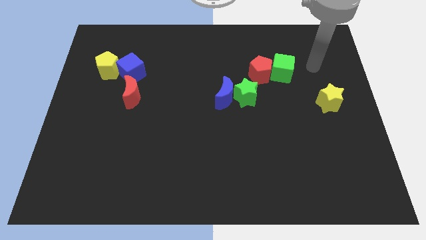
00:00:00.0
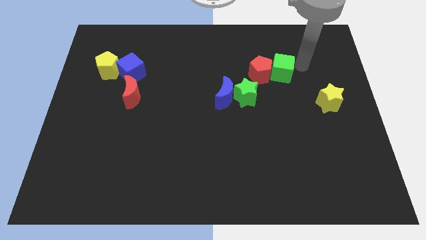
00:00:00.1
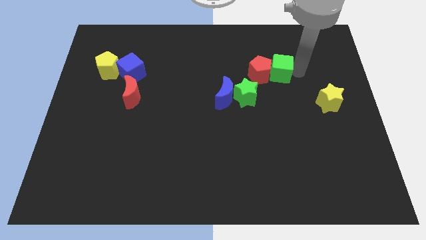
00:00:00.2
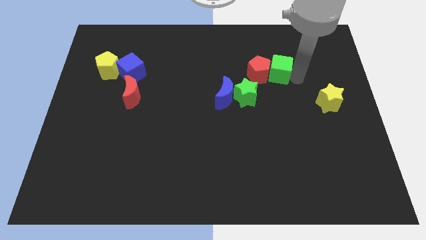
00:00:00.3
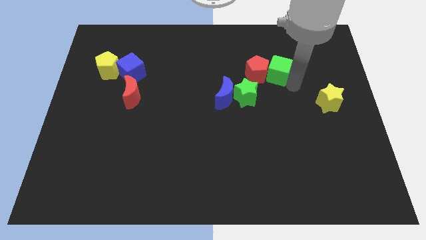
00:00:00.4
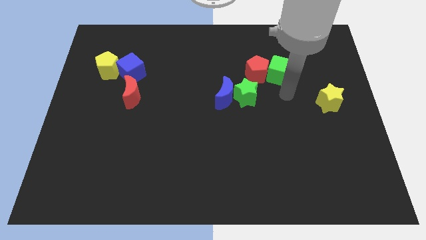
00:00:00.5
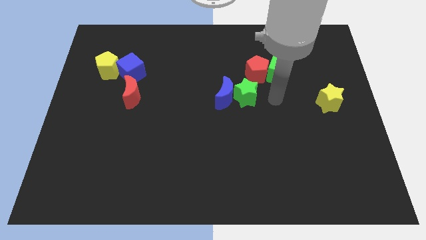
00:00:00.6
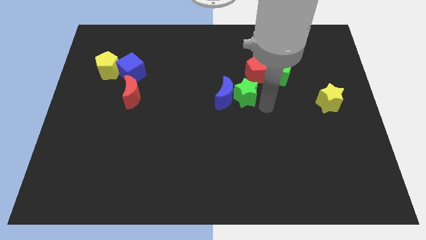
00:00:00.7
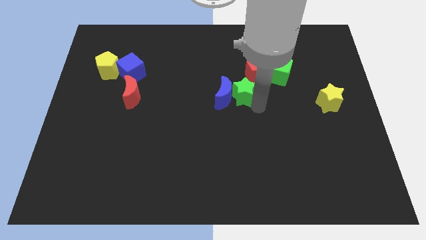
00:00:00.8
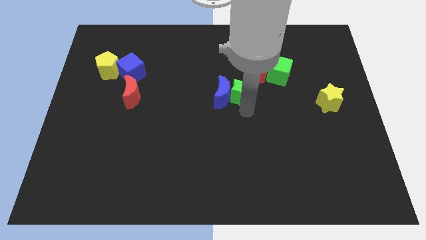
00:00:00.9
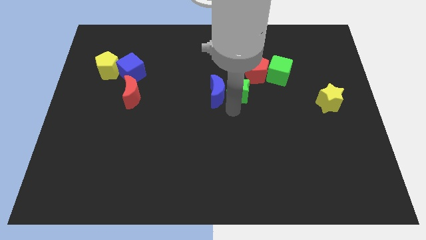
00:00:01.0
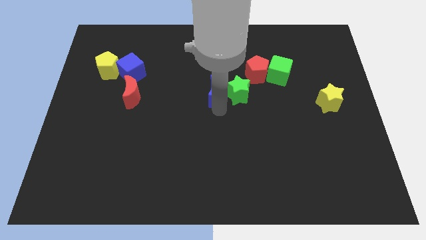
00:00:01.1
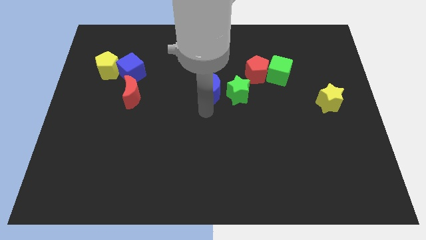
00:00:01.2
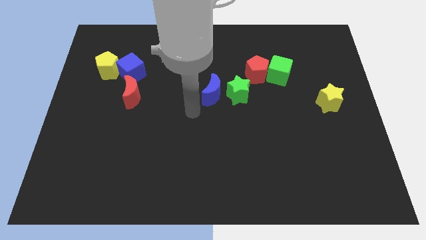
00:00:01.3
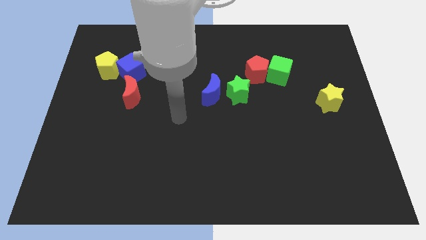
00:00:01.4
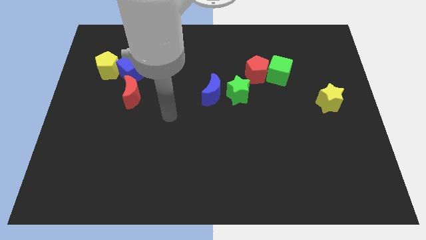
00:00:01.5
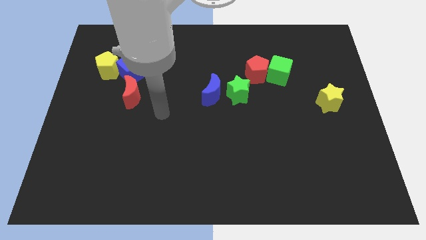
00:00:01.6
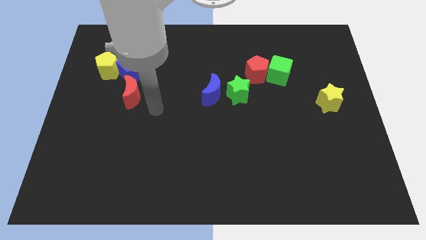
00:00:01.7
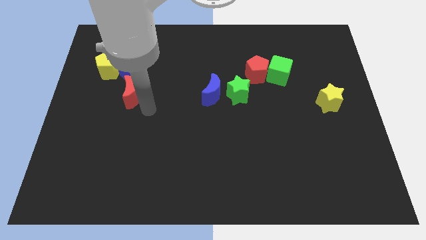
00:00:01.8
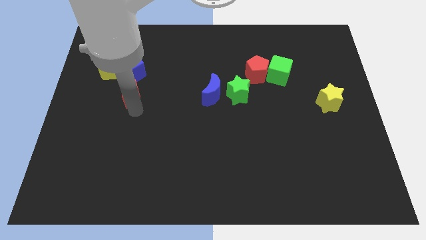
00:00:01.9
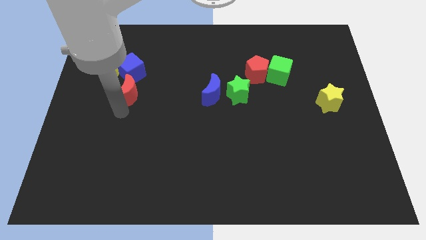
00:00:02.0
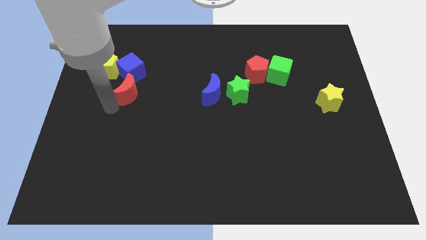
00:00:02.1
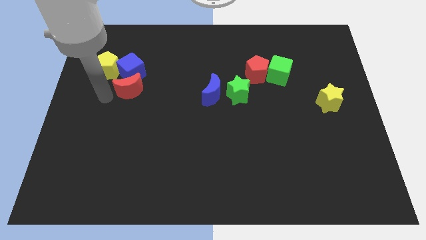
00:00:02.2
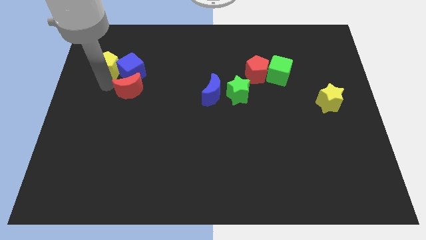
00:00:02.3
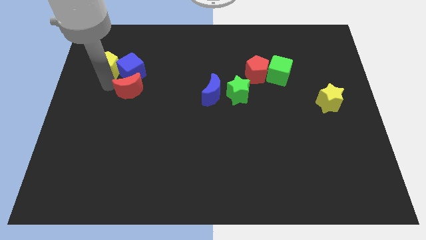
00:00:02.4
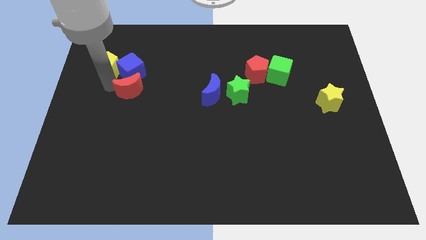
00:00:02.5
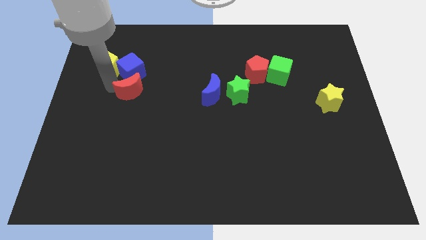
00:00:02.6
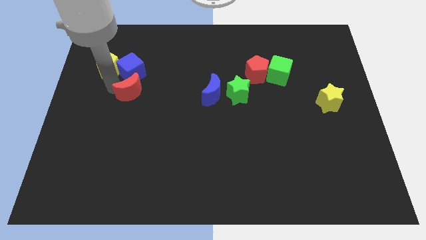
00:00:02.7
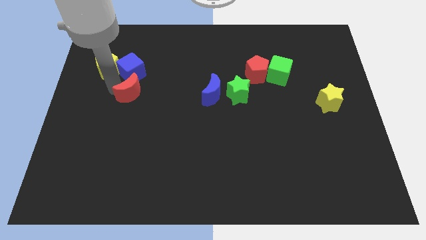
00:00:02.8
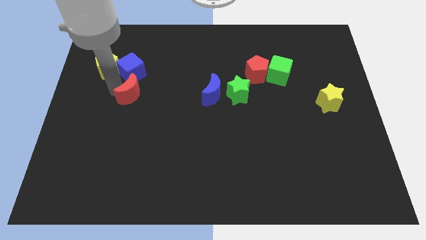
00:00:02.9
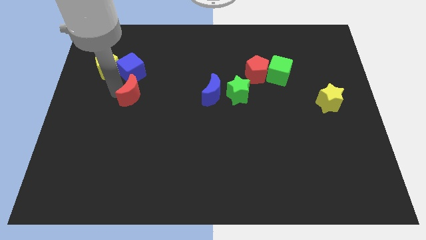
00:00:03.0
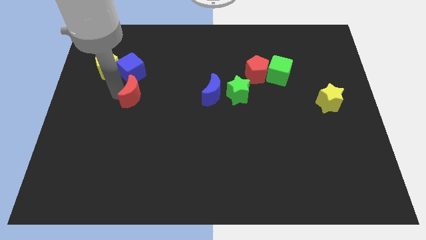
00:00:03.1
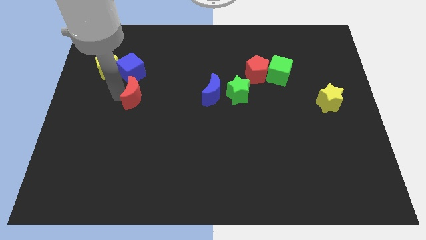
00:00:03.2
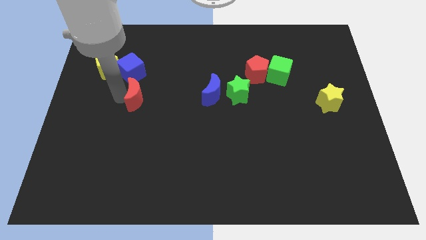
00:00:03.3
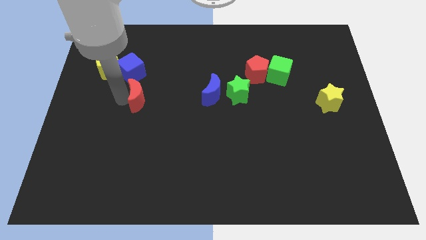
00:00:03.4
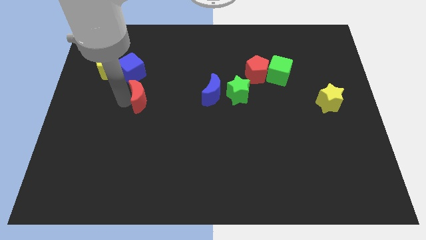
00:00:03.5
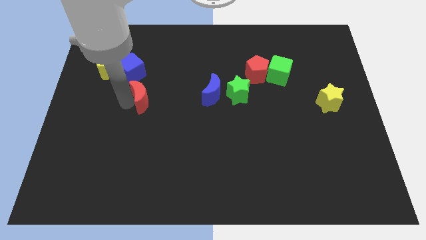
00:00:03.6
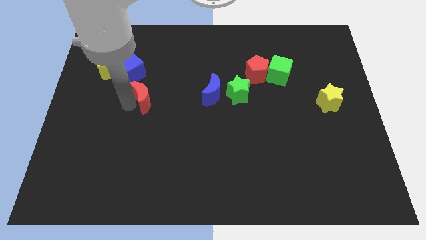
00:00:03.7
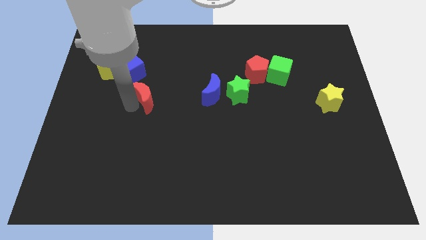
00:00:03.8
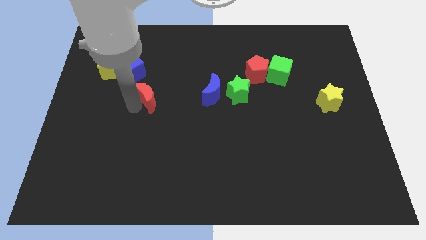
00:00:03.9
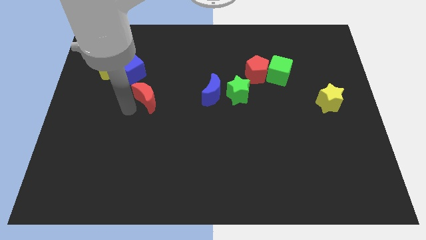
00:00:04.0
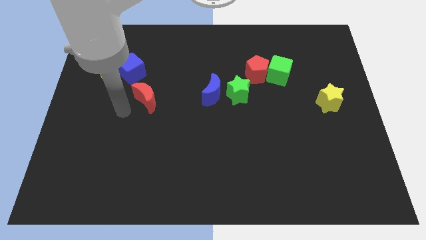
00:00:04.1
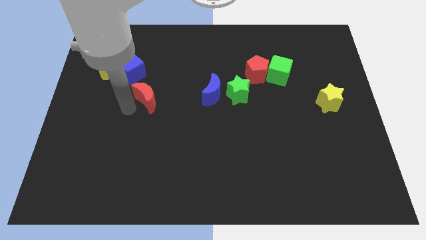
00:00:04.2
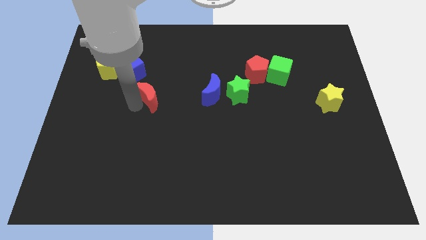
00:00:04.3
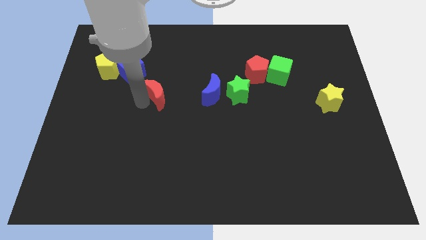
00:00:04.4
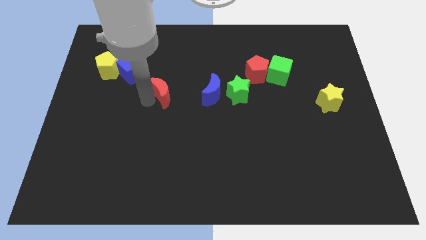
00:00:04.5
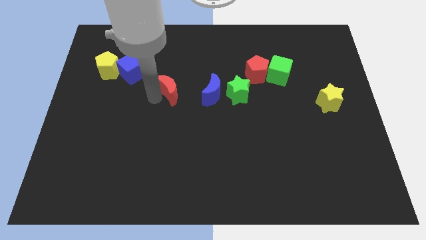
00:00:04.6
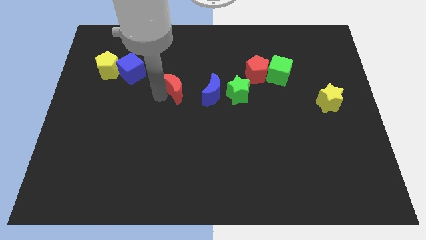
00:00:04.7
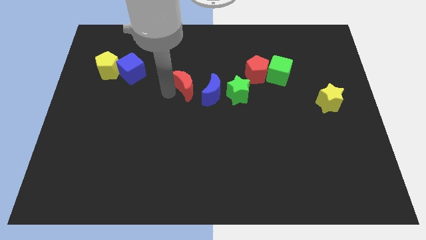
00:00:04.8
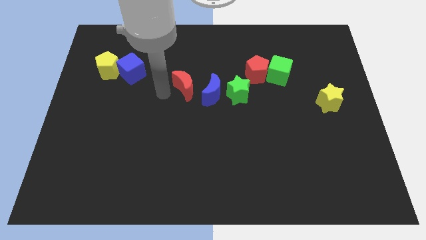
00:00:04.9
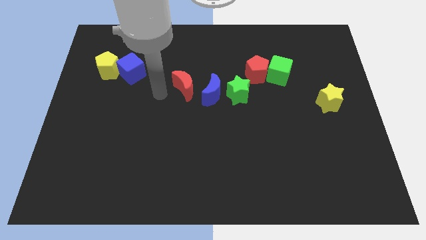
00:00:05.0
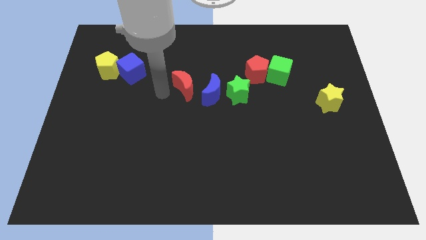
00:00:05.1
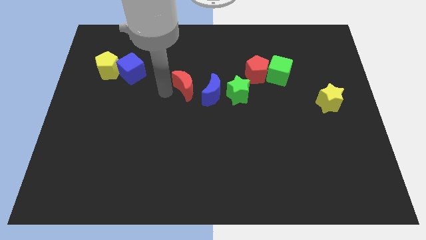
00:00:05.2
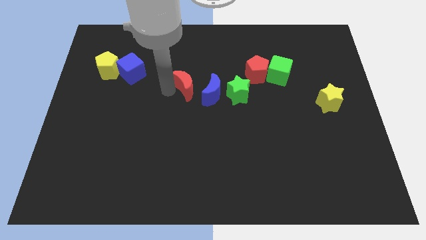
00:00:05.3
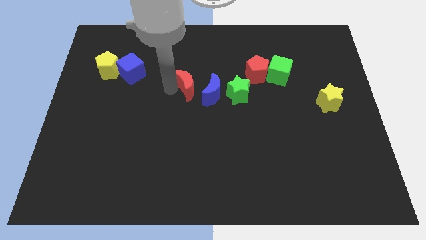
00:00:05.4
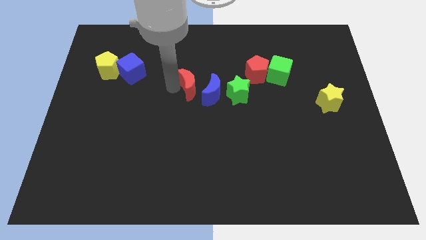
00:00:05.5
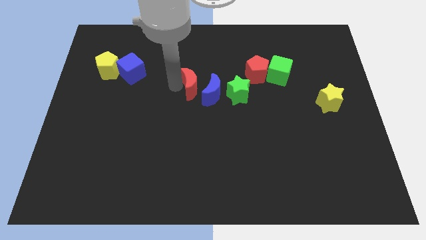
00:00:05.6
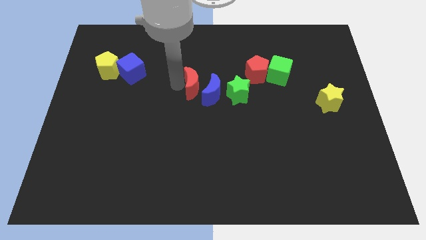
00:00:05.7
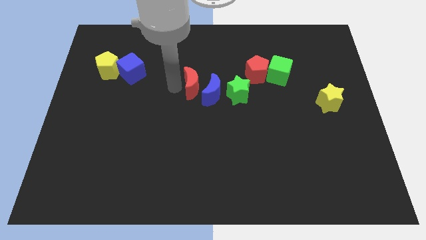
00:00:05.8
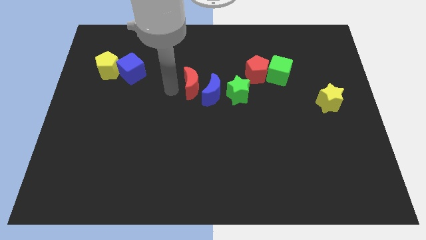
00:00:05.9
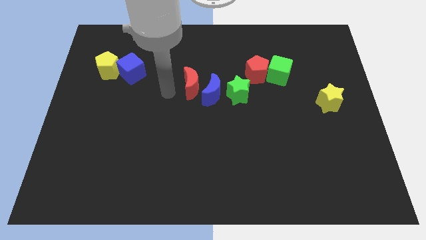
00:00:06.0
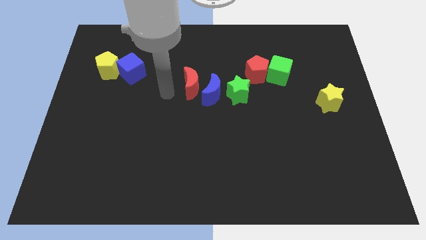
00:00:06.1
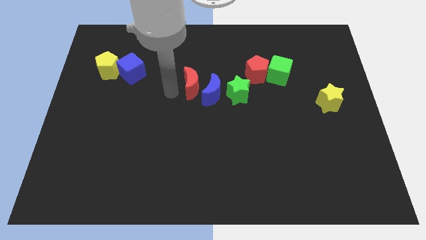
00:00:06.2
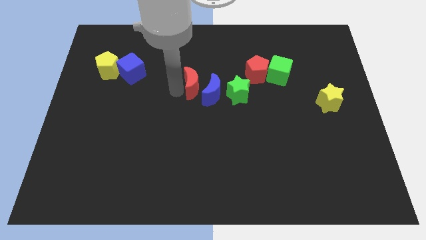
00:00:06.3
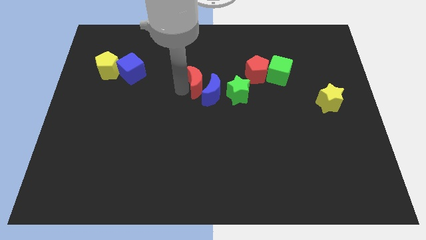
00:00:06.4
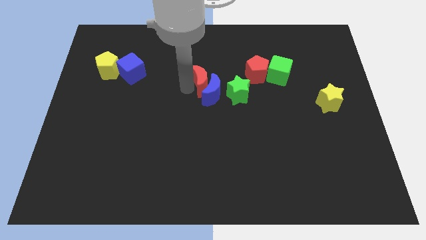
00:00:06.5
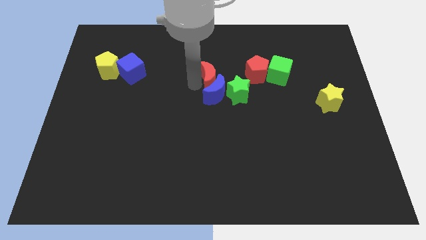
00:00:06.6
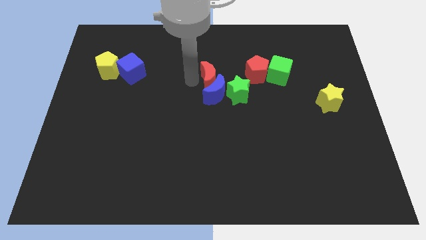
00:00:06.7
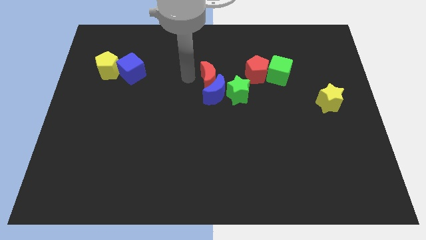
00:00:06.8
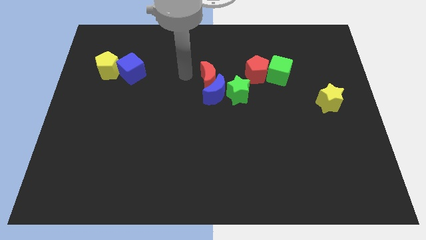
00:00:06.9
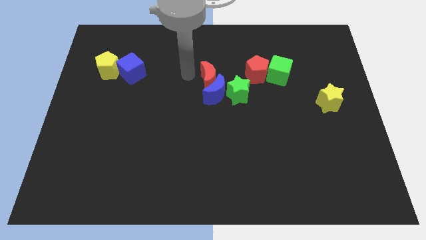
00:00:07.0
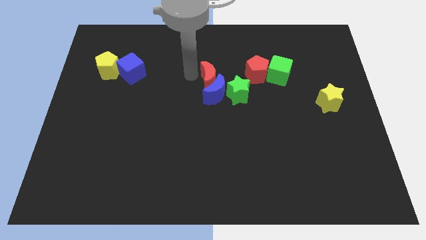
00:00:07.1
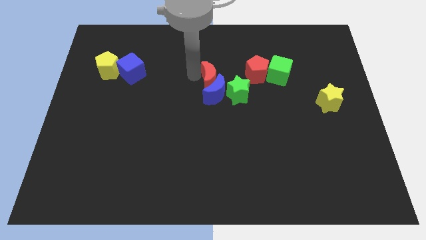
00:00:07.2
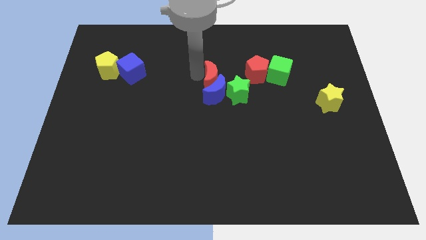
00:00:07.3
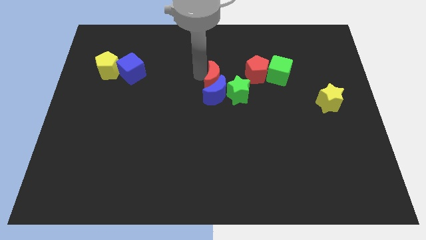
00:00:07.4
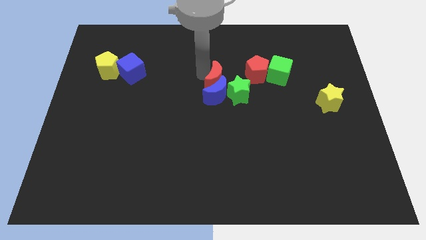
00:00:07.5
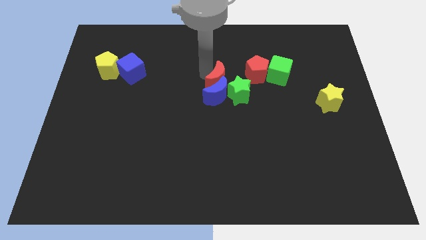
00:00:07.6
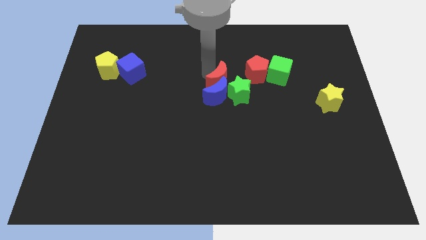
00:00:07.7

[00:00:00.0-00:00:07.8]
push the red moon next to the green star
